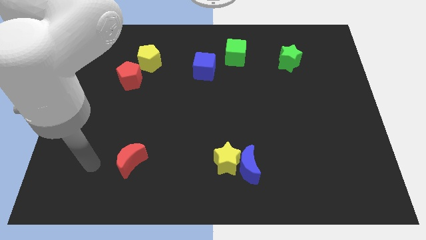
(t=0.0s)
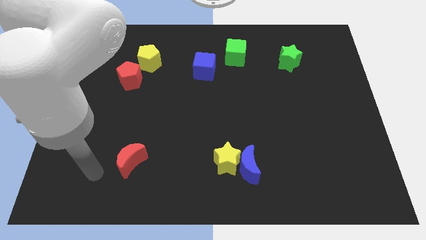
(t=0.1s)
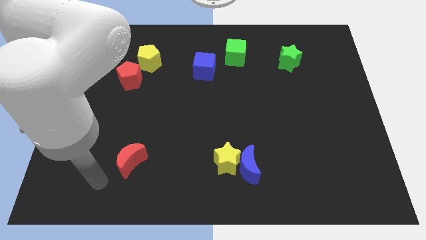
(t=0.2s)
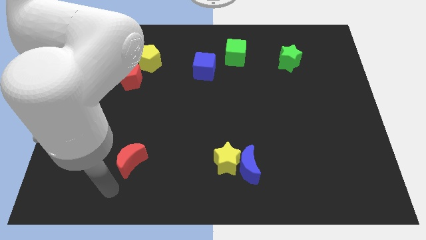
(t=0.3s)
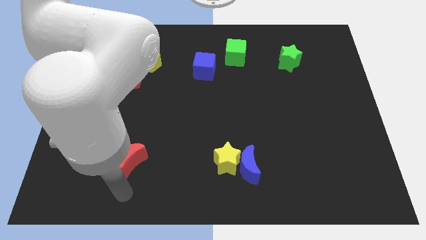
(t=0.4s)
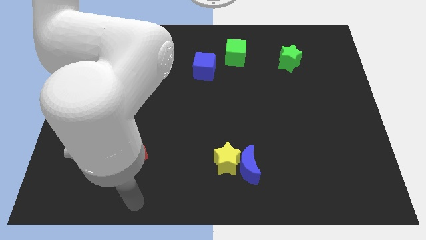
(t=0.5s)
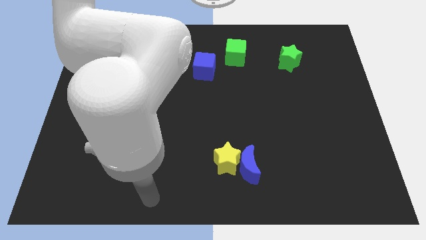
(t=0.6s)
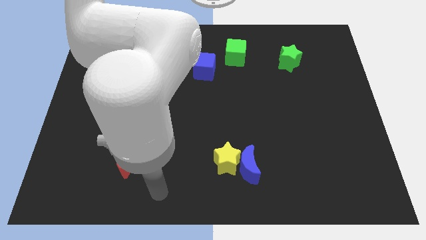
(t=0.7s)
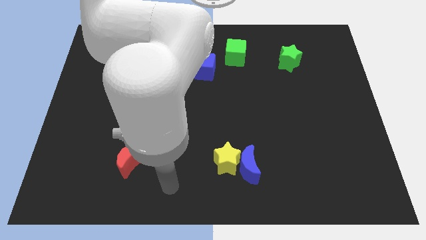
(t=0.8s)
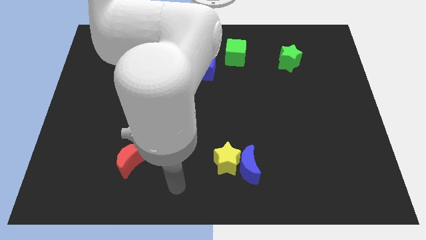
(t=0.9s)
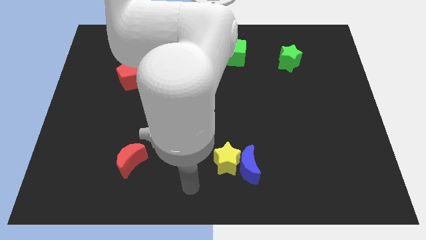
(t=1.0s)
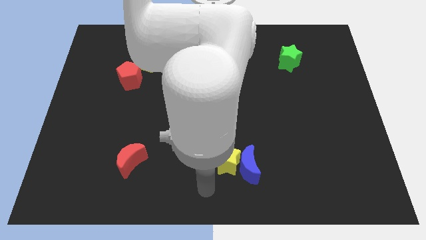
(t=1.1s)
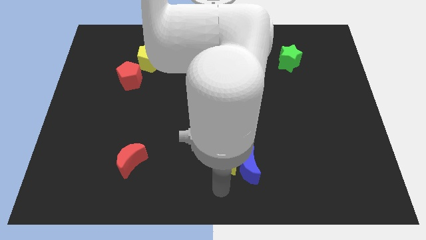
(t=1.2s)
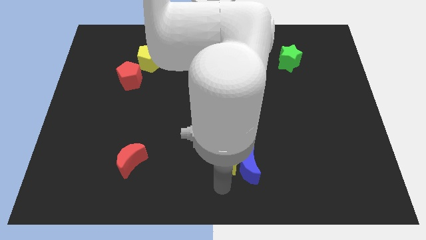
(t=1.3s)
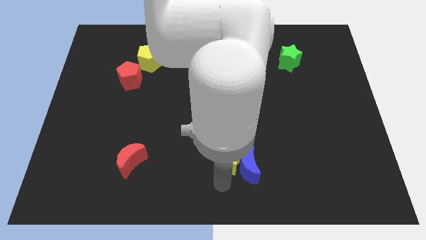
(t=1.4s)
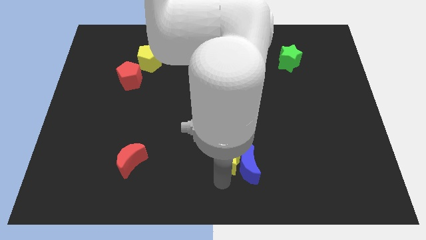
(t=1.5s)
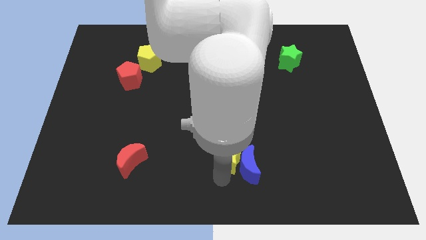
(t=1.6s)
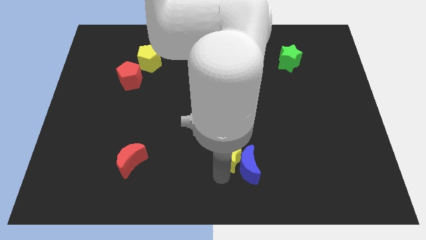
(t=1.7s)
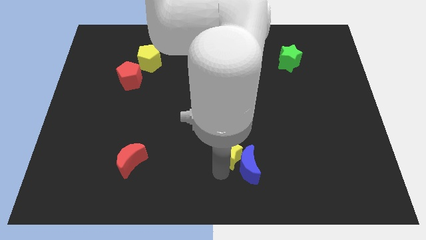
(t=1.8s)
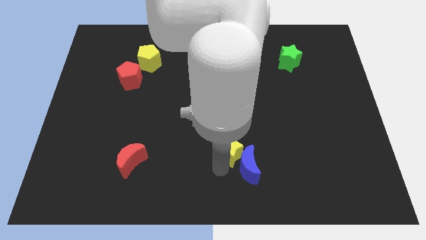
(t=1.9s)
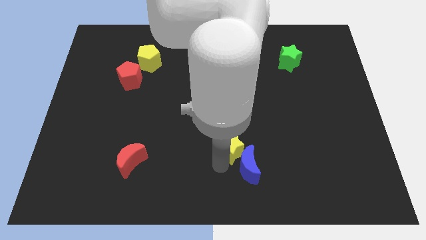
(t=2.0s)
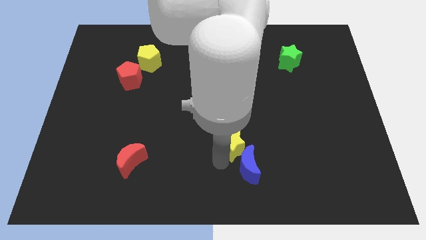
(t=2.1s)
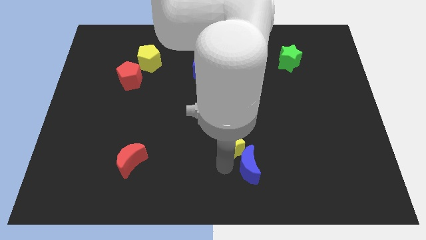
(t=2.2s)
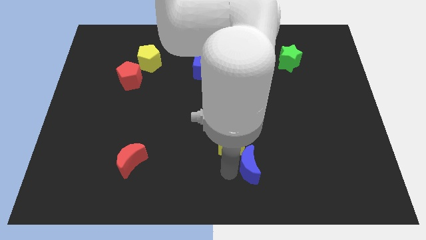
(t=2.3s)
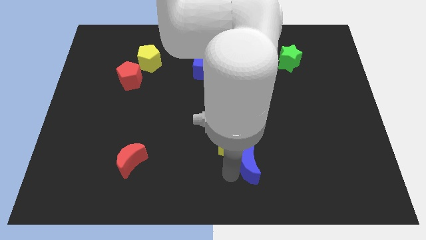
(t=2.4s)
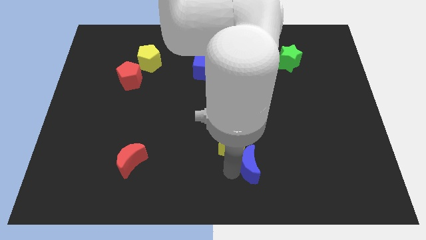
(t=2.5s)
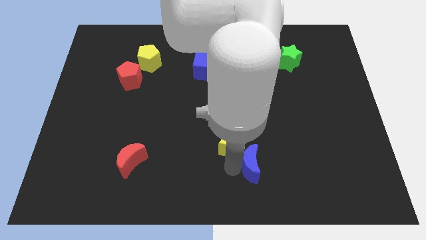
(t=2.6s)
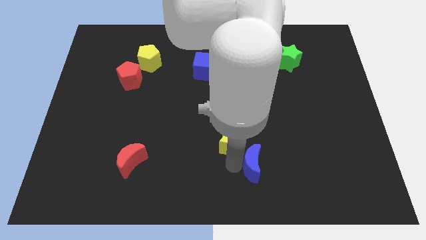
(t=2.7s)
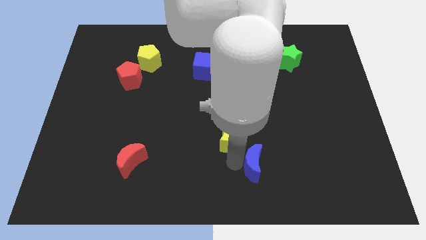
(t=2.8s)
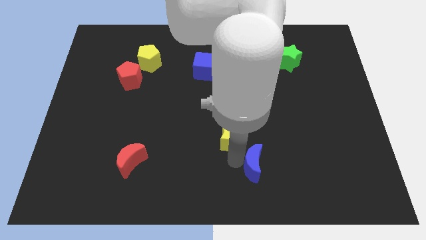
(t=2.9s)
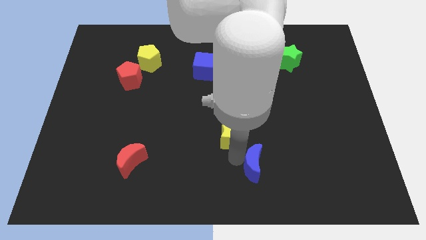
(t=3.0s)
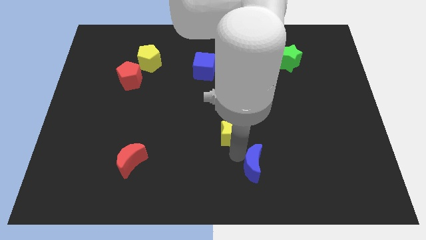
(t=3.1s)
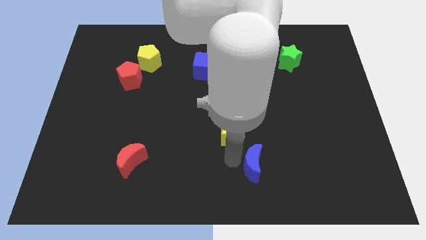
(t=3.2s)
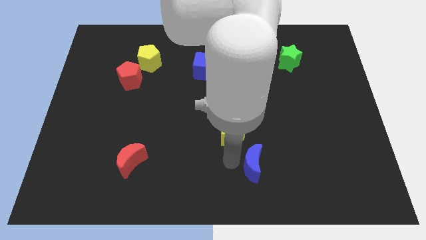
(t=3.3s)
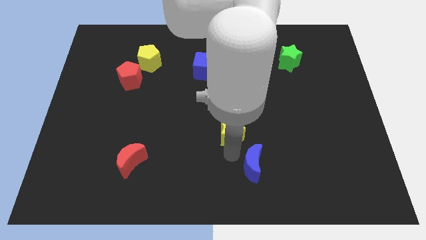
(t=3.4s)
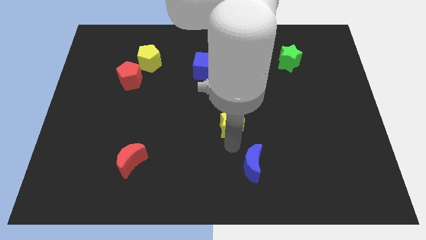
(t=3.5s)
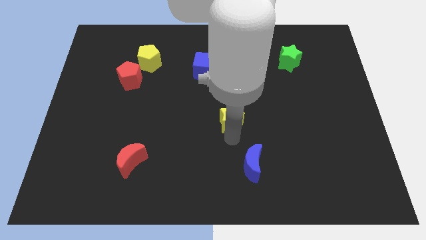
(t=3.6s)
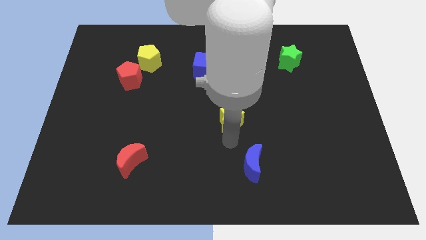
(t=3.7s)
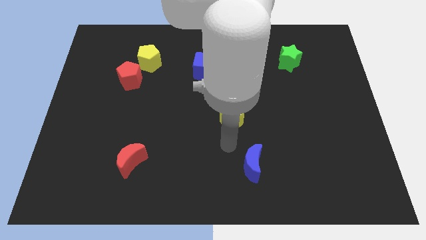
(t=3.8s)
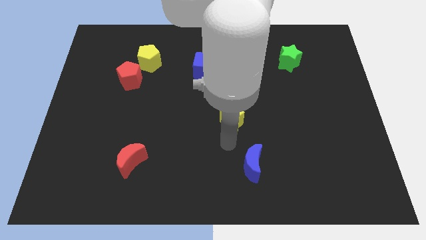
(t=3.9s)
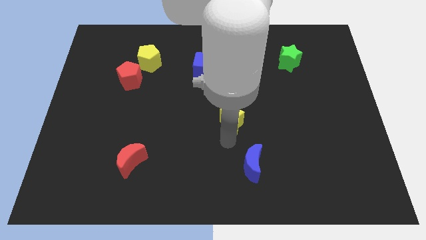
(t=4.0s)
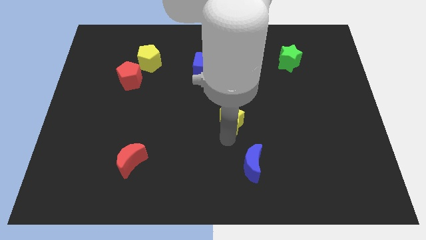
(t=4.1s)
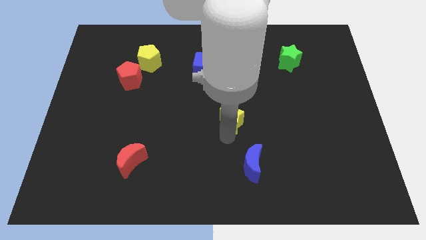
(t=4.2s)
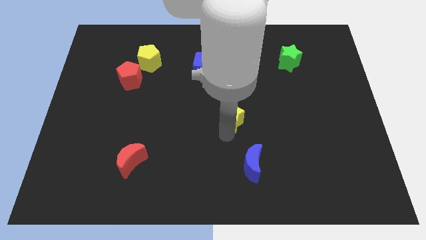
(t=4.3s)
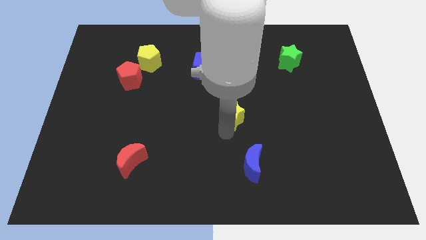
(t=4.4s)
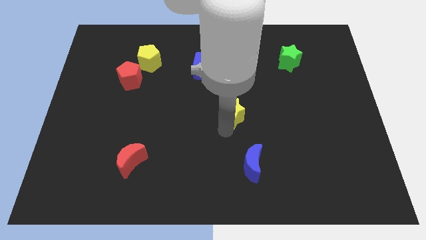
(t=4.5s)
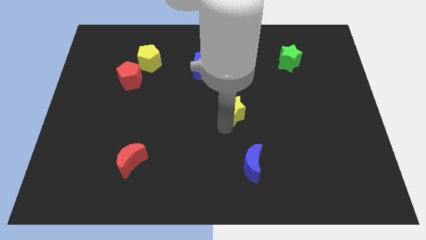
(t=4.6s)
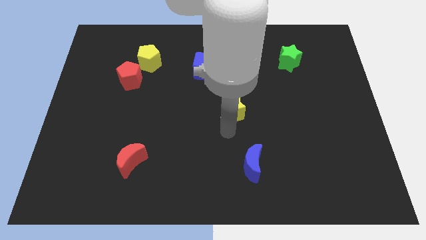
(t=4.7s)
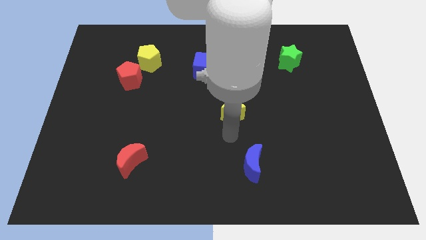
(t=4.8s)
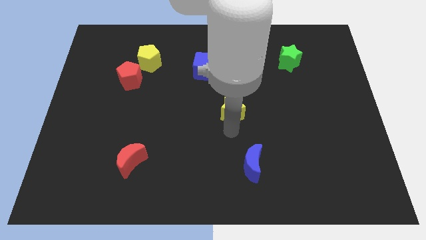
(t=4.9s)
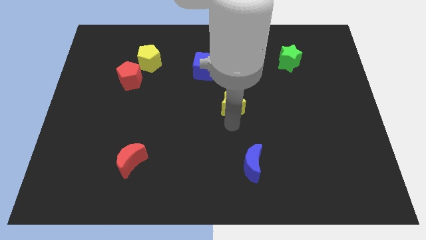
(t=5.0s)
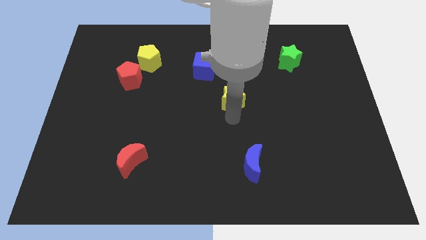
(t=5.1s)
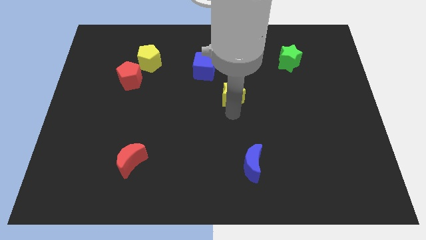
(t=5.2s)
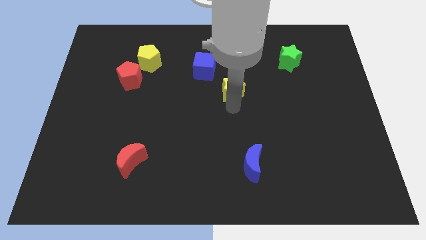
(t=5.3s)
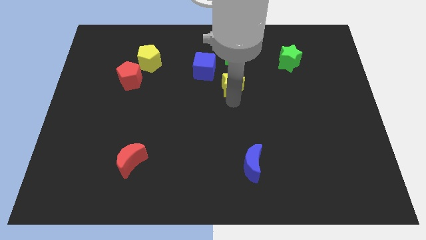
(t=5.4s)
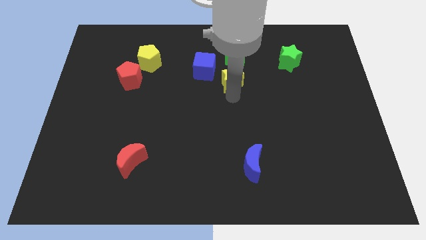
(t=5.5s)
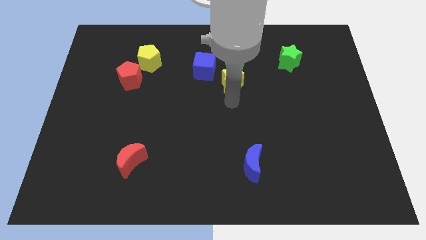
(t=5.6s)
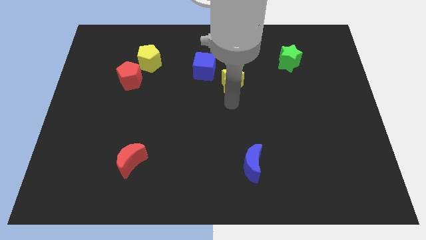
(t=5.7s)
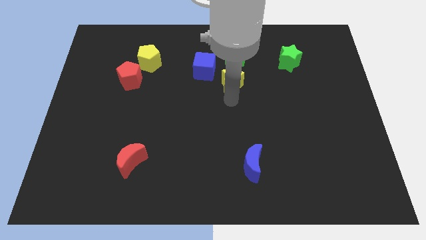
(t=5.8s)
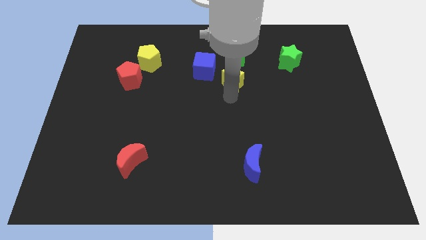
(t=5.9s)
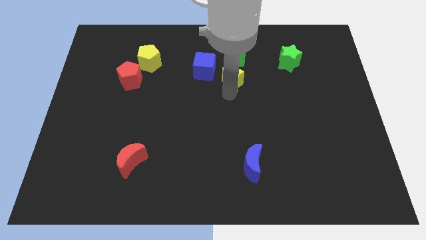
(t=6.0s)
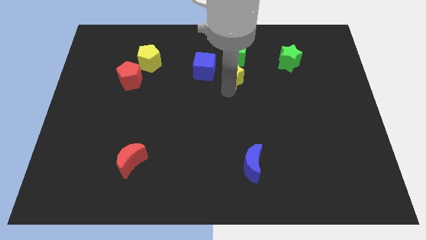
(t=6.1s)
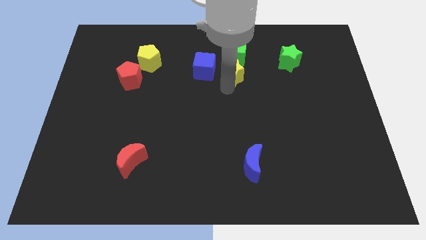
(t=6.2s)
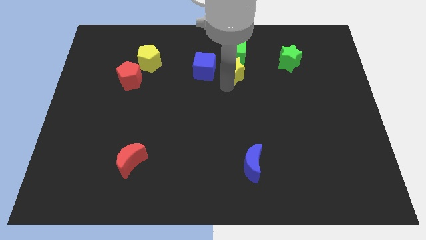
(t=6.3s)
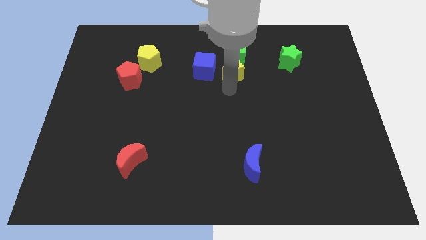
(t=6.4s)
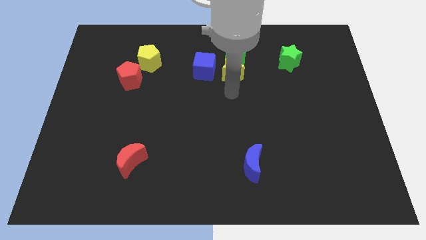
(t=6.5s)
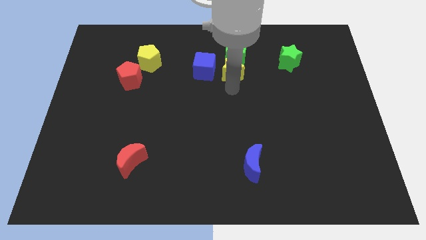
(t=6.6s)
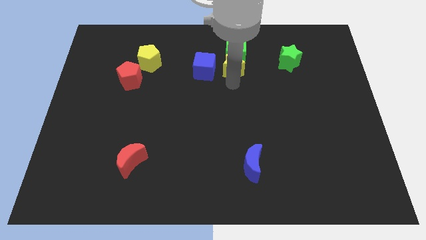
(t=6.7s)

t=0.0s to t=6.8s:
put the yellow star to the green cube

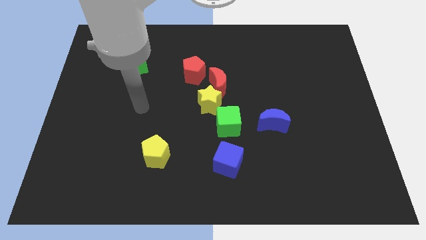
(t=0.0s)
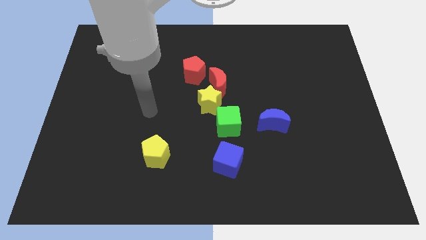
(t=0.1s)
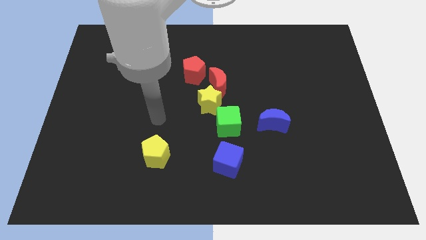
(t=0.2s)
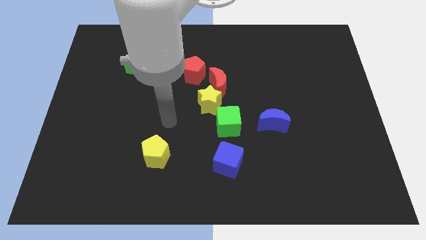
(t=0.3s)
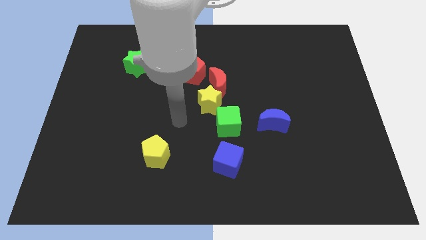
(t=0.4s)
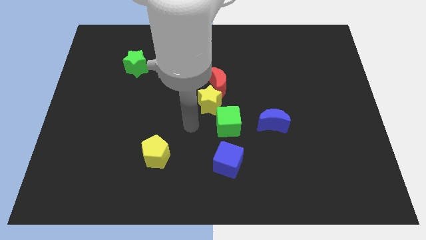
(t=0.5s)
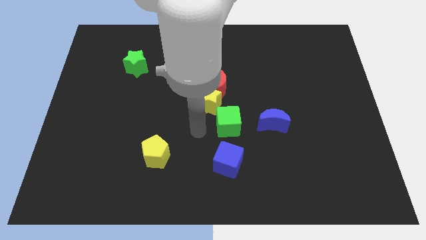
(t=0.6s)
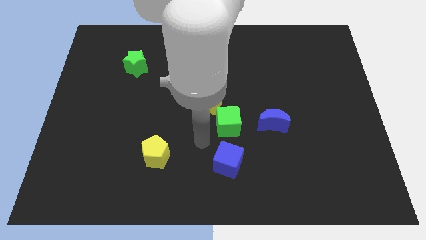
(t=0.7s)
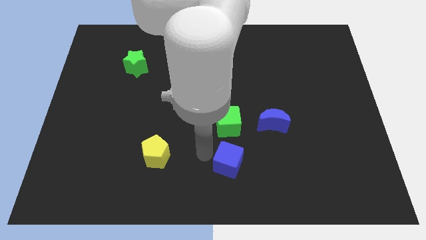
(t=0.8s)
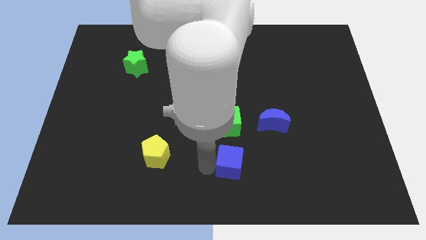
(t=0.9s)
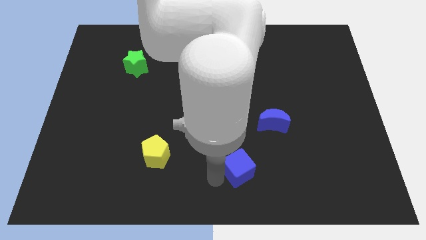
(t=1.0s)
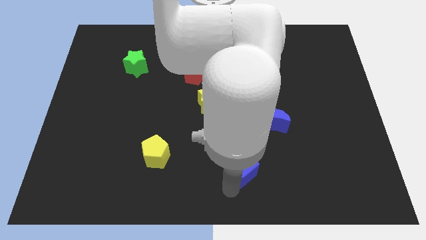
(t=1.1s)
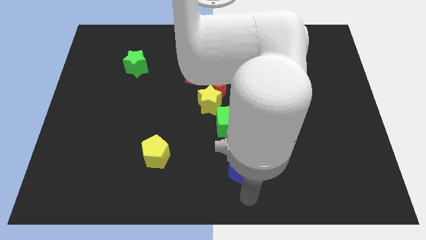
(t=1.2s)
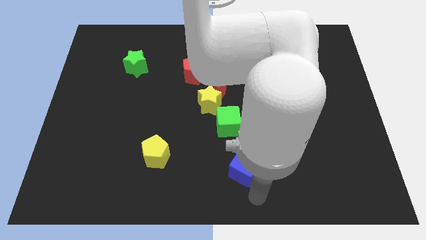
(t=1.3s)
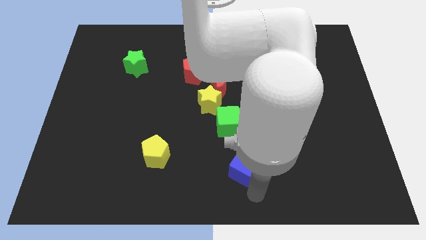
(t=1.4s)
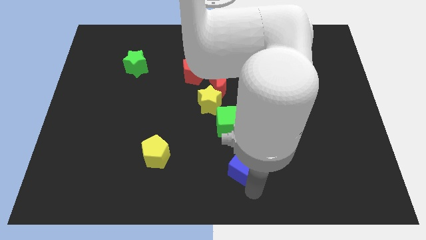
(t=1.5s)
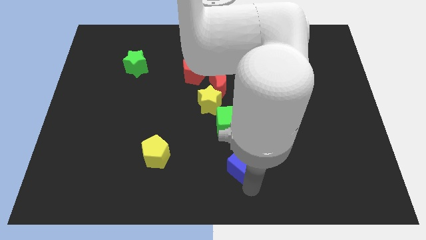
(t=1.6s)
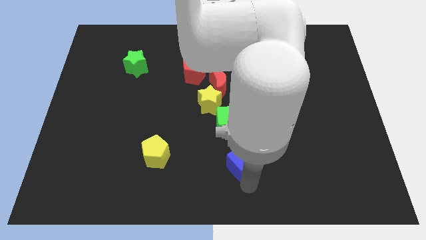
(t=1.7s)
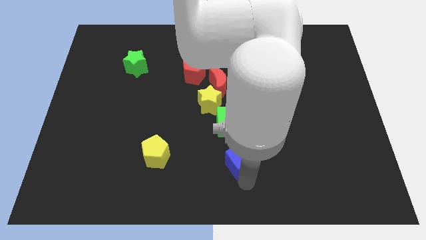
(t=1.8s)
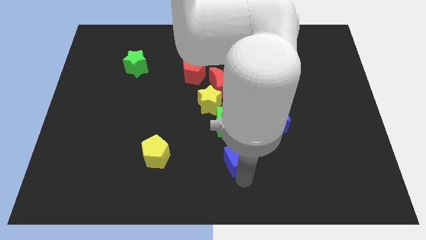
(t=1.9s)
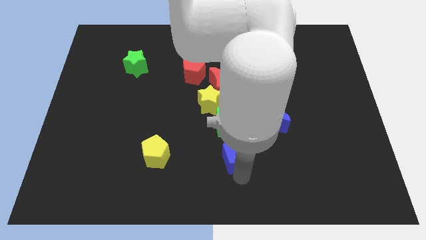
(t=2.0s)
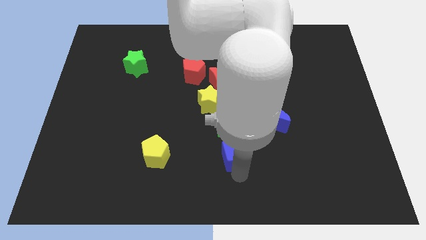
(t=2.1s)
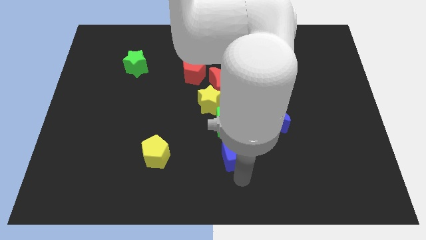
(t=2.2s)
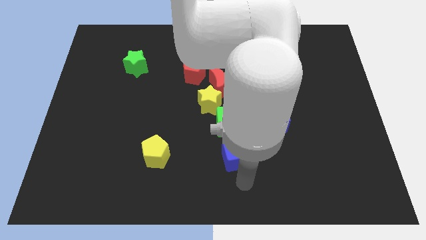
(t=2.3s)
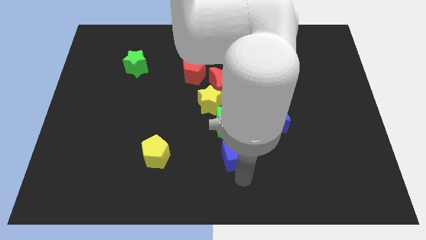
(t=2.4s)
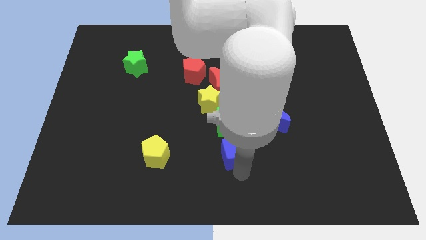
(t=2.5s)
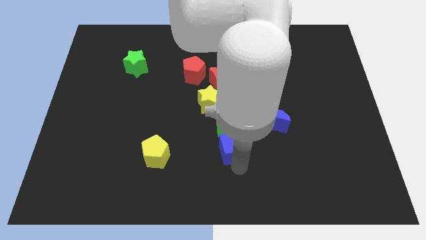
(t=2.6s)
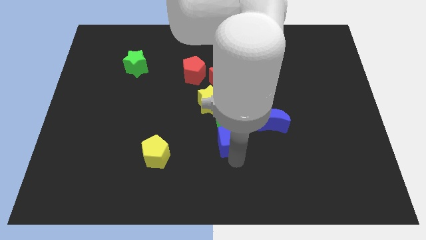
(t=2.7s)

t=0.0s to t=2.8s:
push the blue cube next to the green cube
